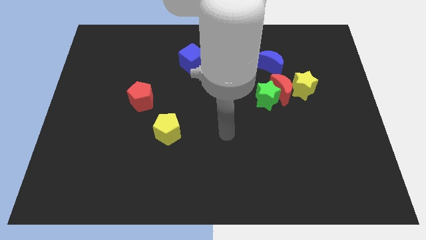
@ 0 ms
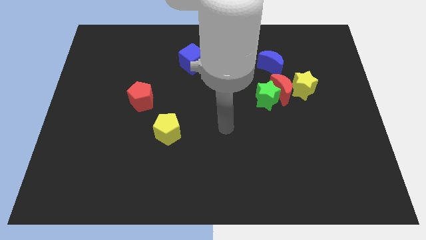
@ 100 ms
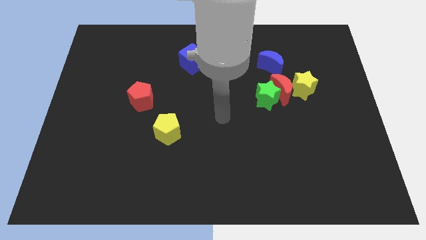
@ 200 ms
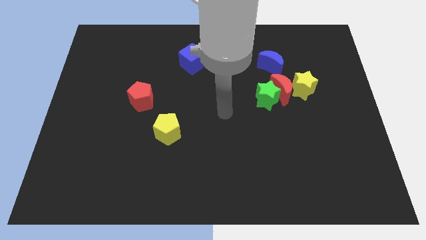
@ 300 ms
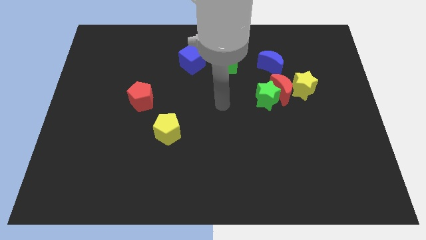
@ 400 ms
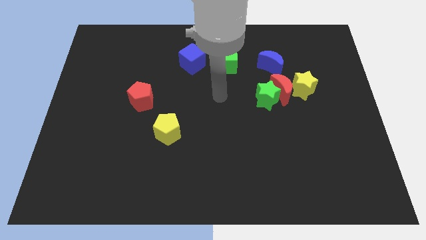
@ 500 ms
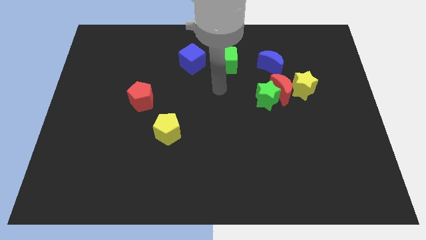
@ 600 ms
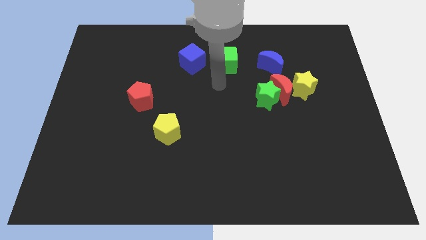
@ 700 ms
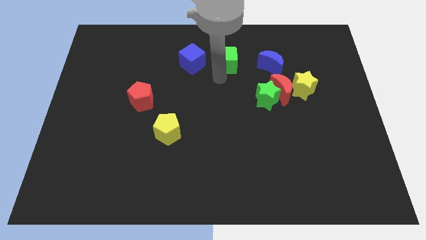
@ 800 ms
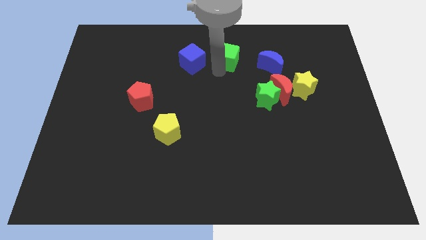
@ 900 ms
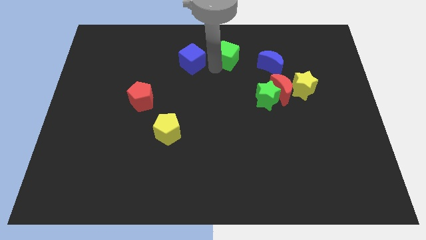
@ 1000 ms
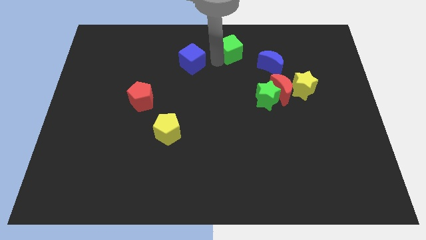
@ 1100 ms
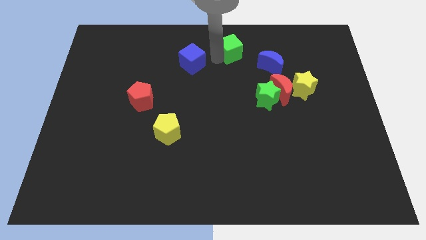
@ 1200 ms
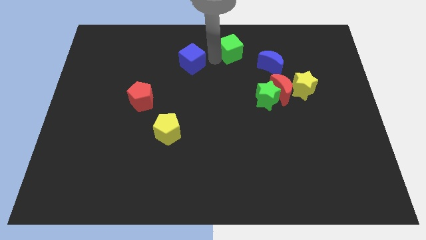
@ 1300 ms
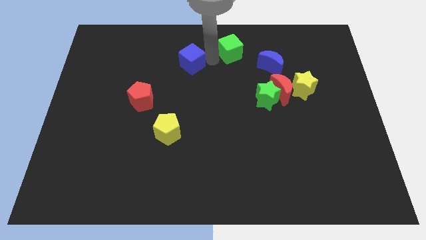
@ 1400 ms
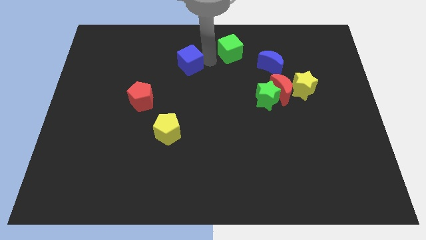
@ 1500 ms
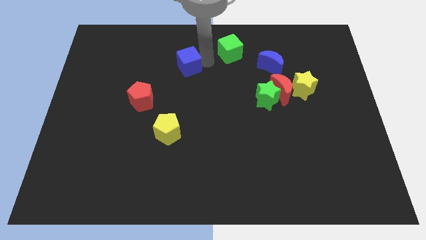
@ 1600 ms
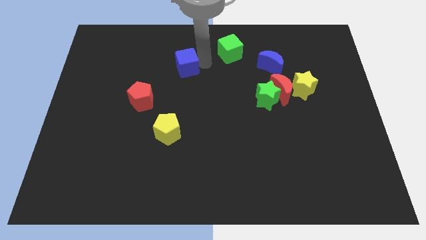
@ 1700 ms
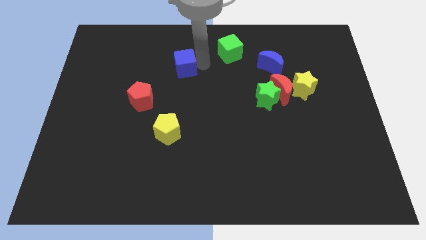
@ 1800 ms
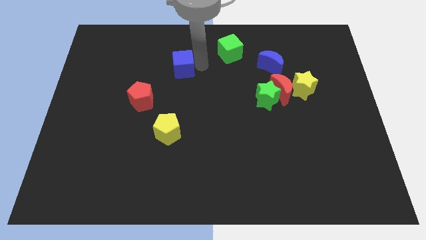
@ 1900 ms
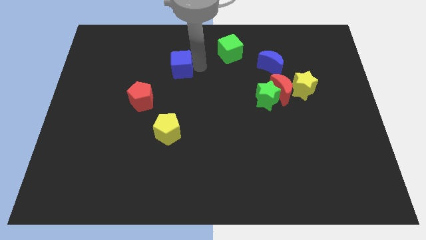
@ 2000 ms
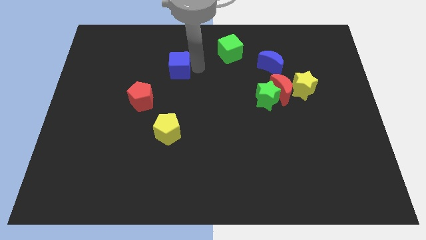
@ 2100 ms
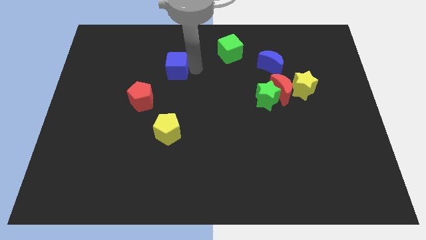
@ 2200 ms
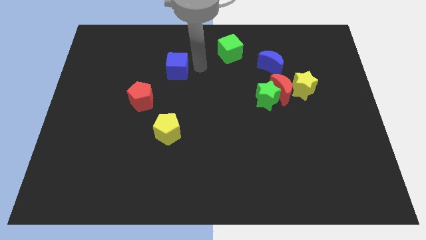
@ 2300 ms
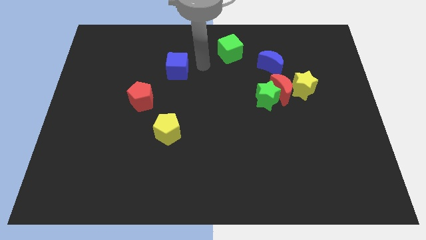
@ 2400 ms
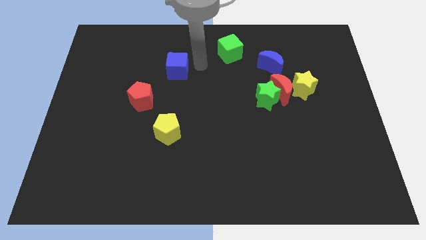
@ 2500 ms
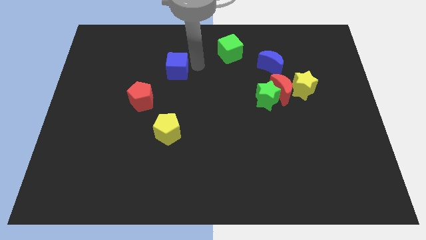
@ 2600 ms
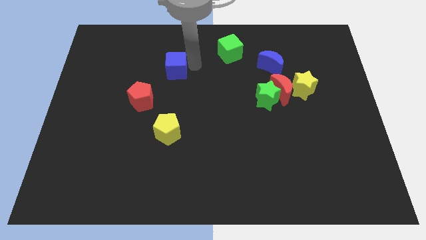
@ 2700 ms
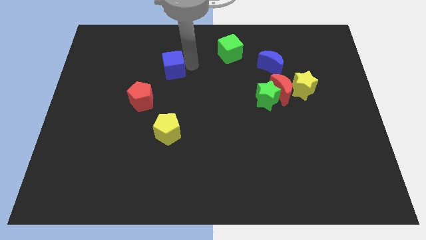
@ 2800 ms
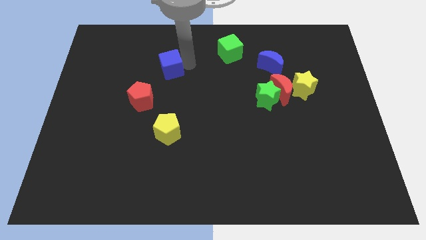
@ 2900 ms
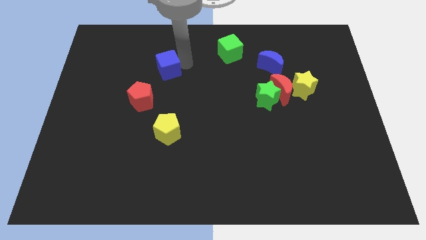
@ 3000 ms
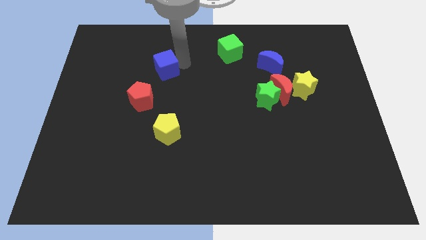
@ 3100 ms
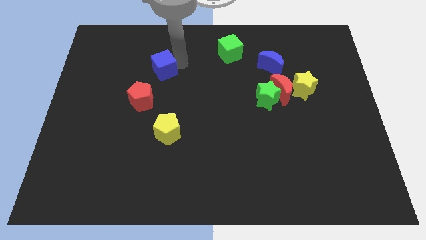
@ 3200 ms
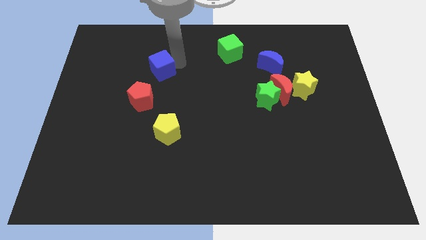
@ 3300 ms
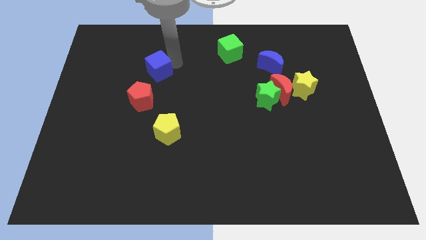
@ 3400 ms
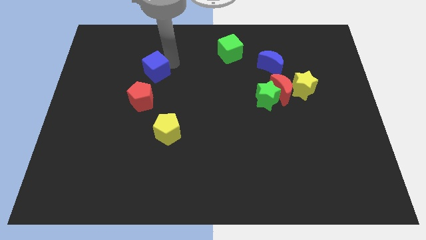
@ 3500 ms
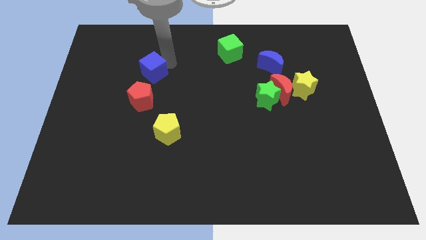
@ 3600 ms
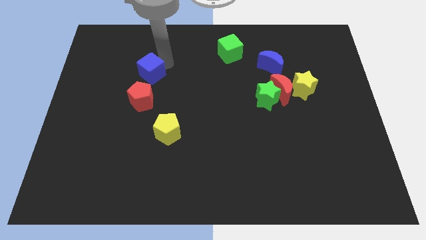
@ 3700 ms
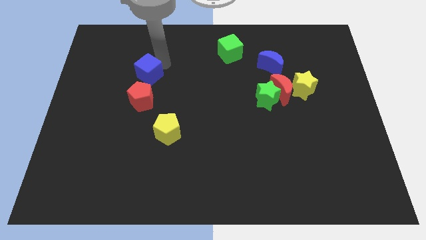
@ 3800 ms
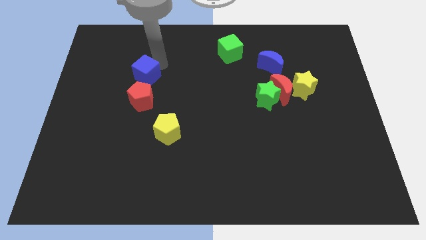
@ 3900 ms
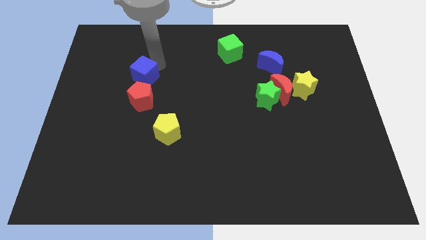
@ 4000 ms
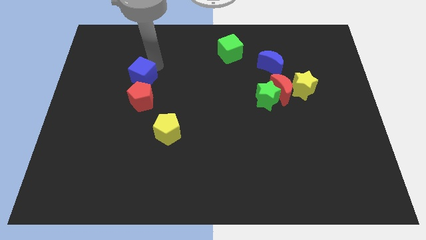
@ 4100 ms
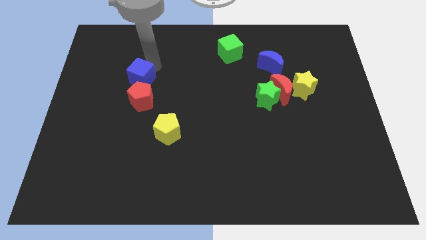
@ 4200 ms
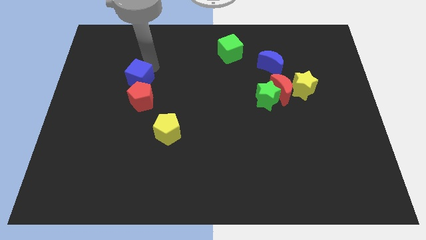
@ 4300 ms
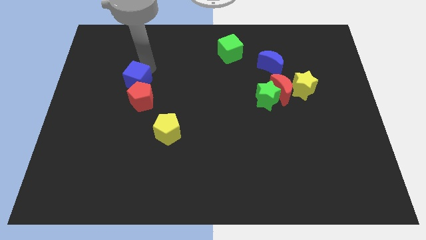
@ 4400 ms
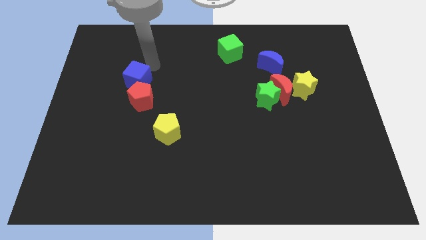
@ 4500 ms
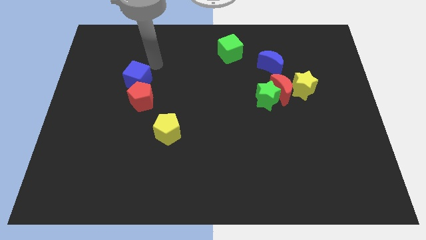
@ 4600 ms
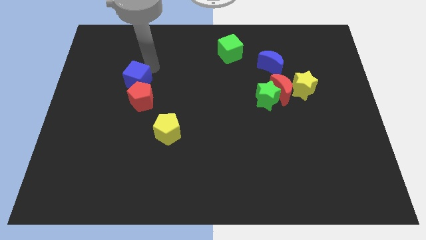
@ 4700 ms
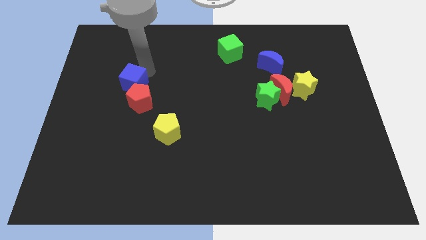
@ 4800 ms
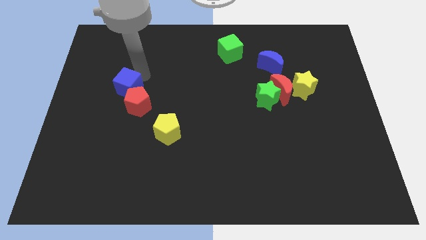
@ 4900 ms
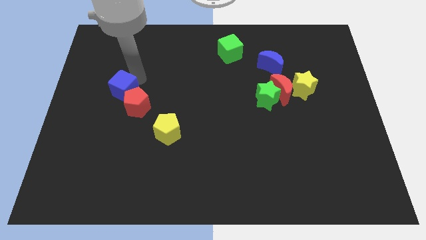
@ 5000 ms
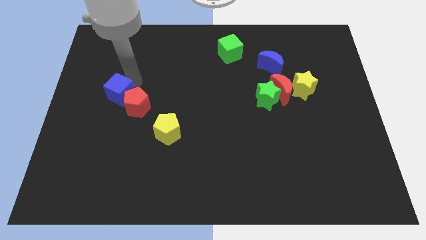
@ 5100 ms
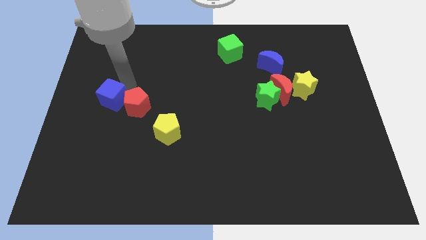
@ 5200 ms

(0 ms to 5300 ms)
push the blue cube down and left diagonally

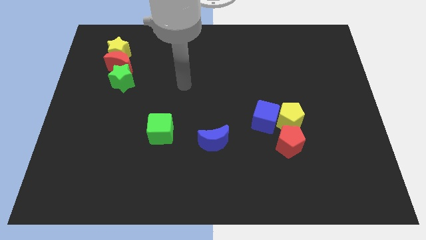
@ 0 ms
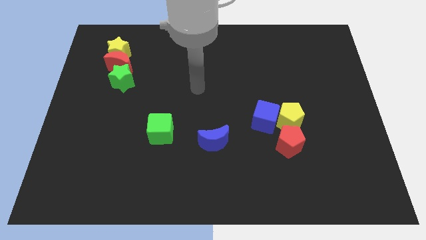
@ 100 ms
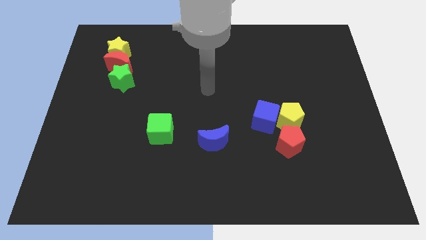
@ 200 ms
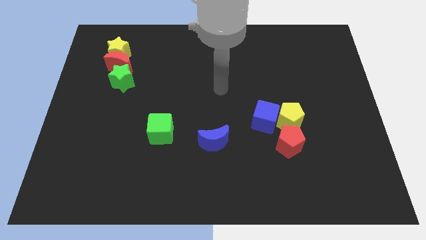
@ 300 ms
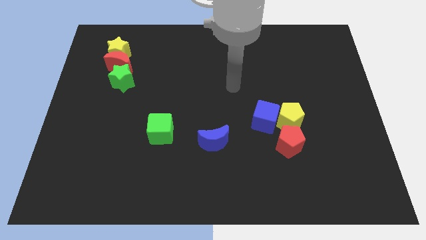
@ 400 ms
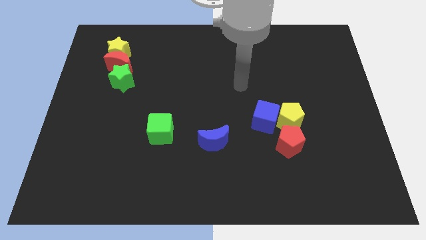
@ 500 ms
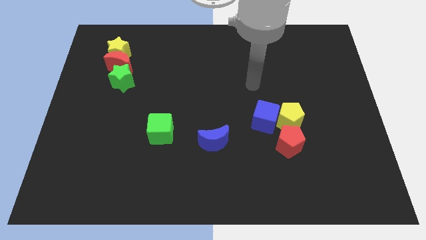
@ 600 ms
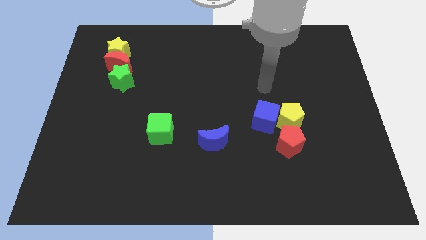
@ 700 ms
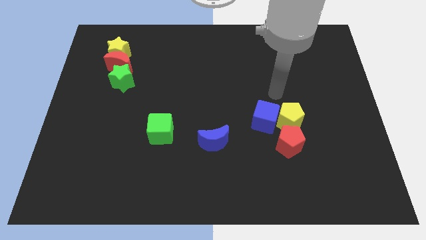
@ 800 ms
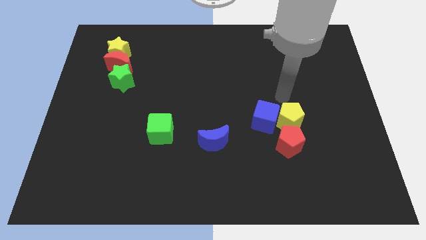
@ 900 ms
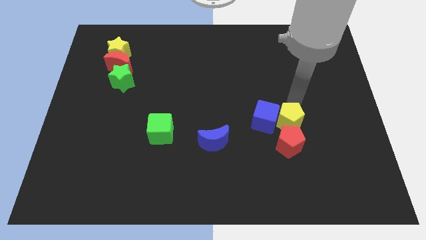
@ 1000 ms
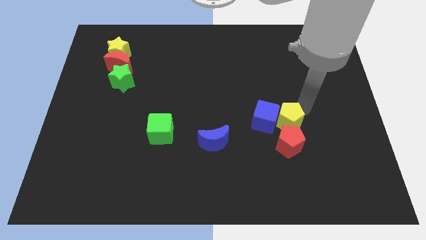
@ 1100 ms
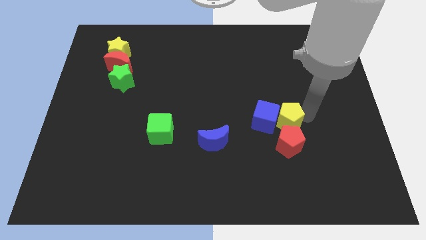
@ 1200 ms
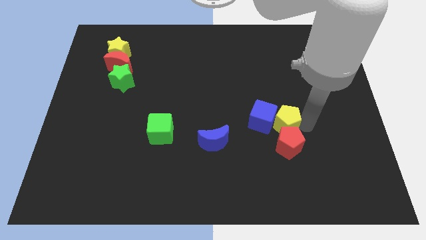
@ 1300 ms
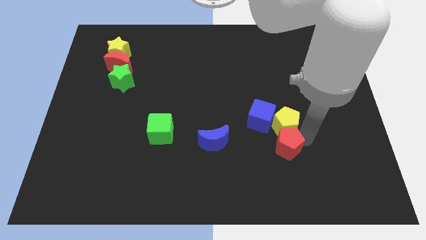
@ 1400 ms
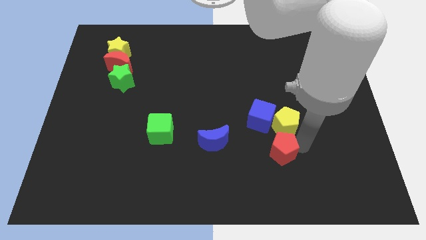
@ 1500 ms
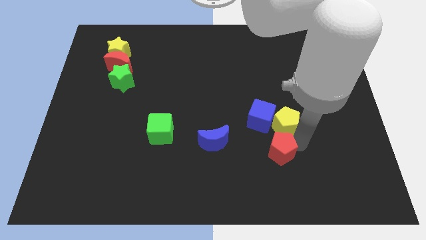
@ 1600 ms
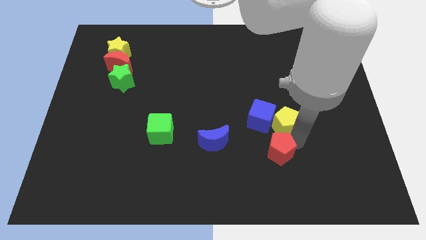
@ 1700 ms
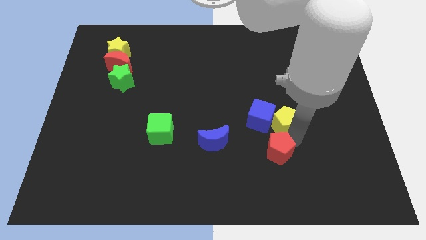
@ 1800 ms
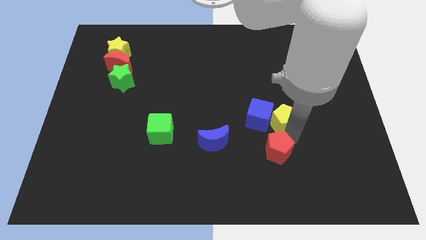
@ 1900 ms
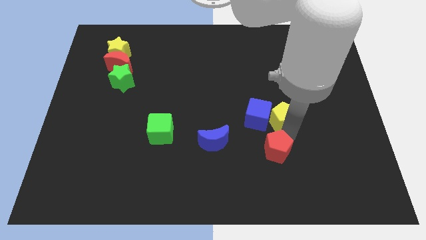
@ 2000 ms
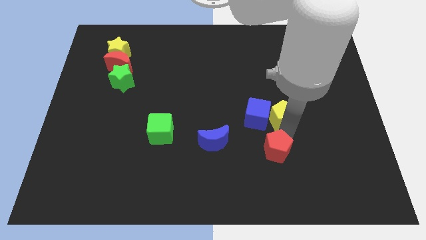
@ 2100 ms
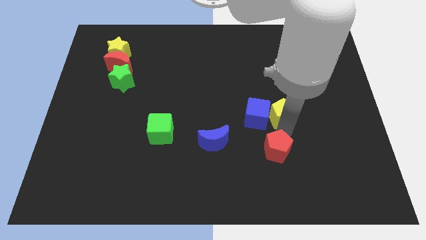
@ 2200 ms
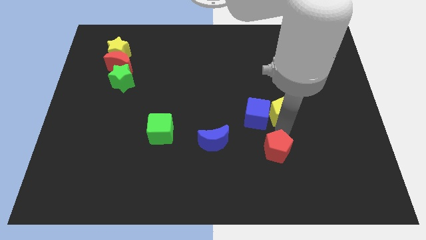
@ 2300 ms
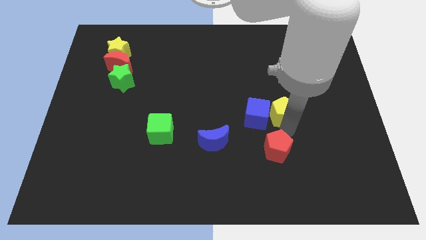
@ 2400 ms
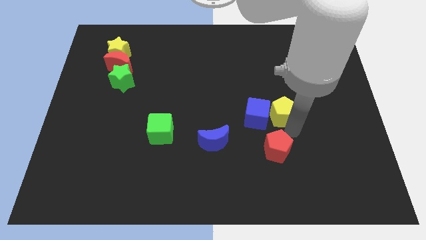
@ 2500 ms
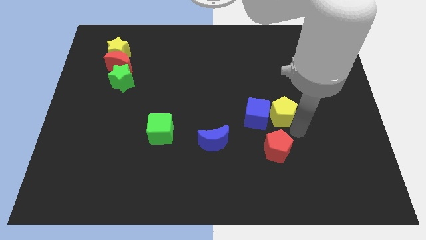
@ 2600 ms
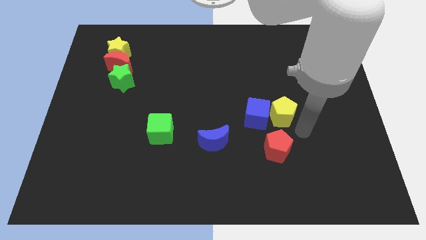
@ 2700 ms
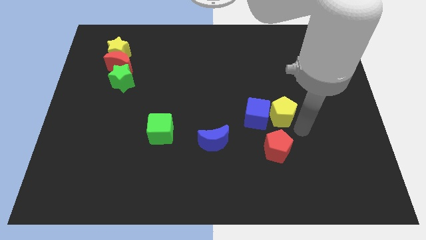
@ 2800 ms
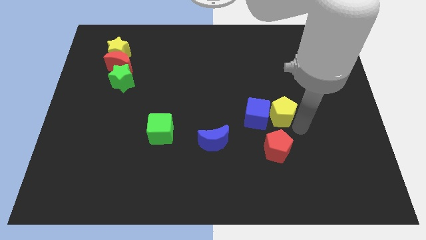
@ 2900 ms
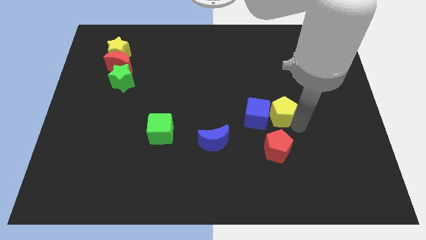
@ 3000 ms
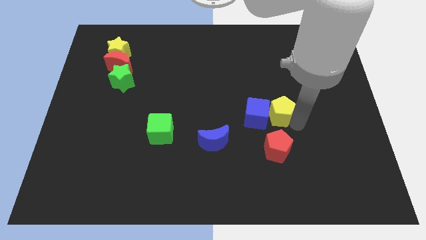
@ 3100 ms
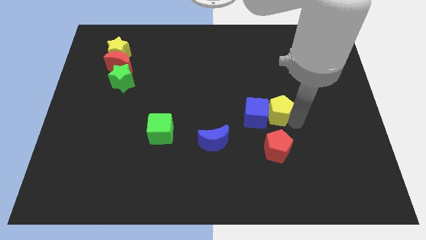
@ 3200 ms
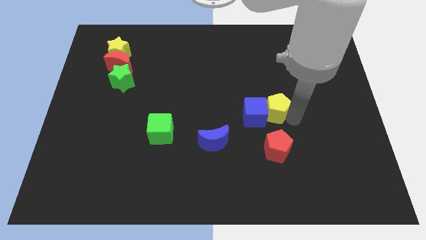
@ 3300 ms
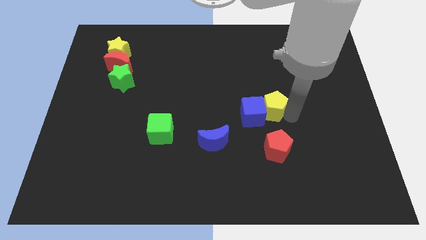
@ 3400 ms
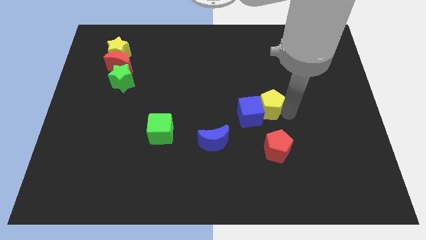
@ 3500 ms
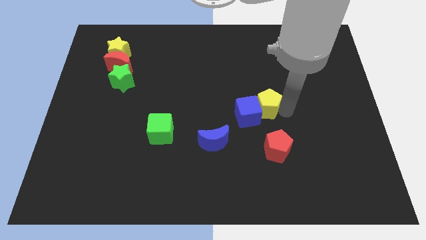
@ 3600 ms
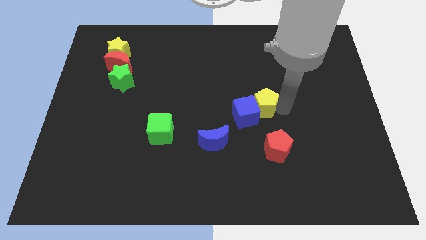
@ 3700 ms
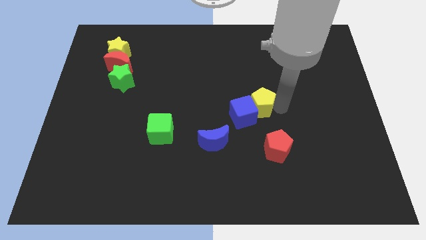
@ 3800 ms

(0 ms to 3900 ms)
slide the yellow pentagon upwards and to the left diagonally a bit
